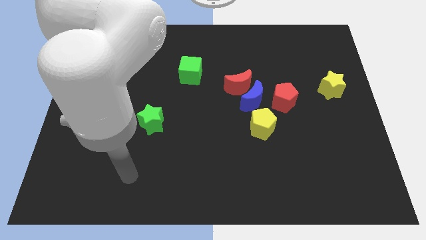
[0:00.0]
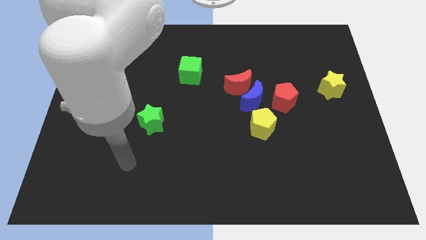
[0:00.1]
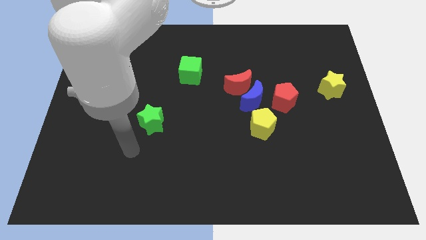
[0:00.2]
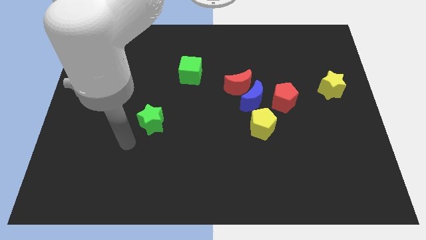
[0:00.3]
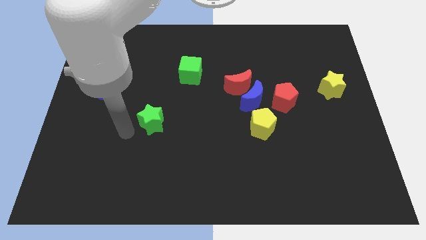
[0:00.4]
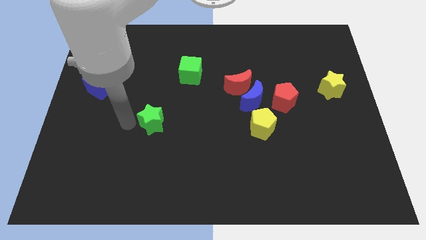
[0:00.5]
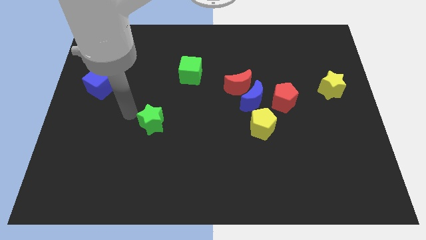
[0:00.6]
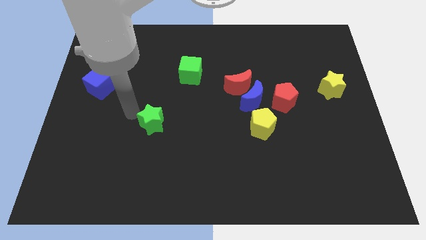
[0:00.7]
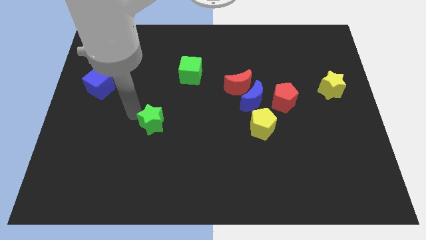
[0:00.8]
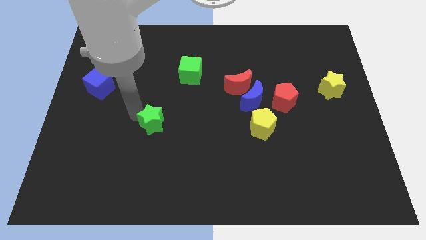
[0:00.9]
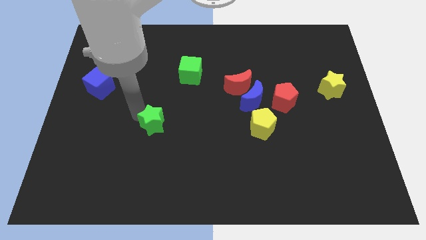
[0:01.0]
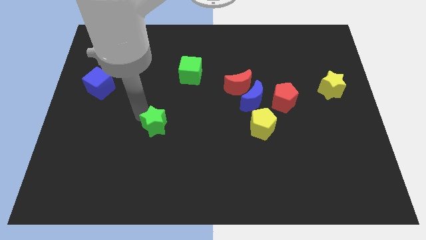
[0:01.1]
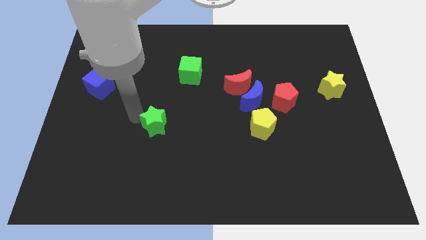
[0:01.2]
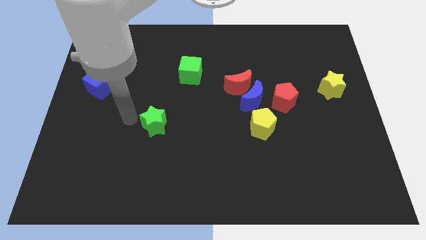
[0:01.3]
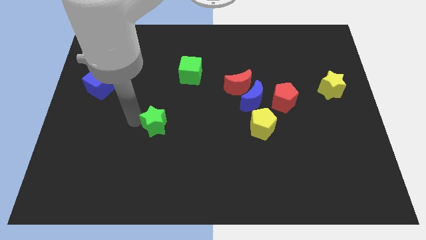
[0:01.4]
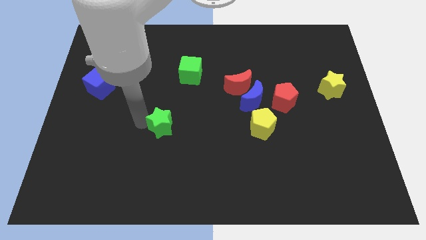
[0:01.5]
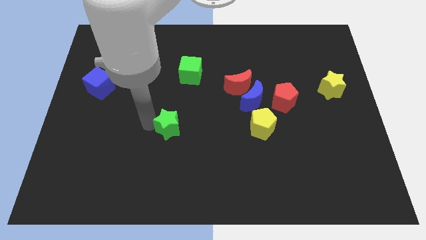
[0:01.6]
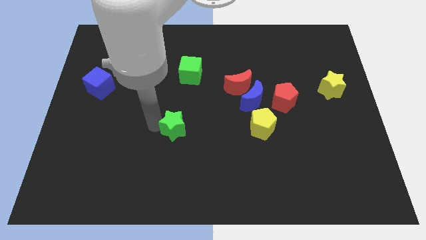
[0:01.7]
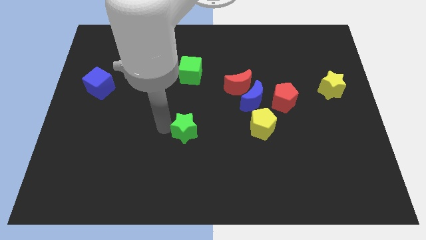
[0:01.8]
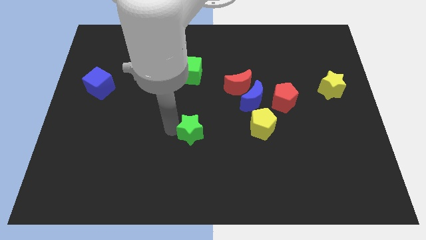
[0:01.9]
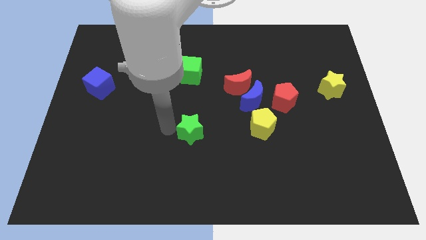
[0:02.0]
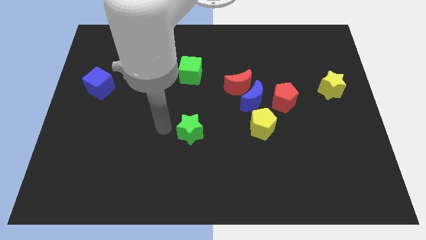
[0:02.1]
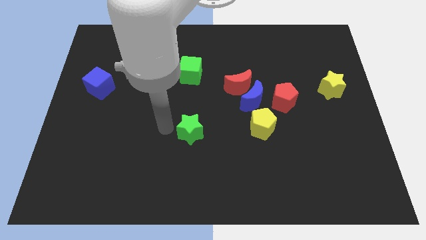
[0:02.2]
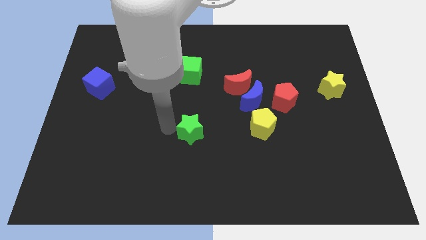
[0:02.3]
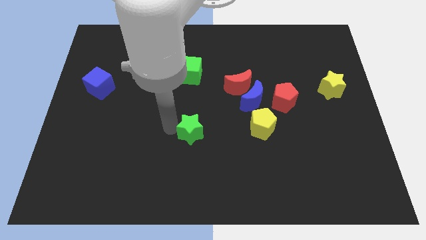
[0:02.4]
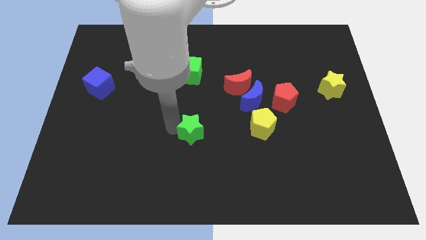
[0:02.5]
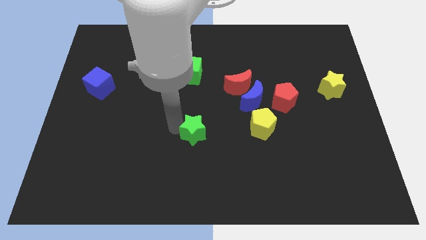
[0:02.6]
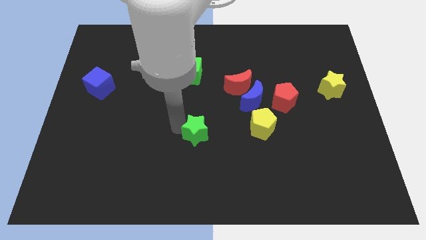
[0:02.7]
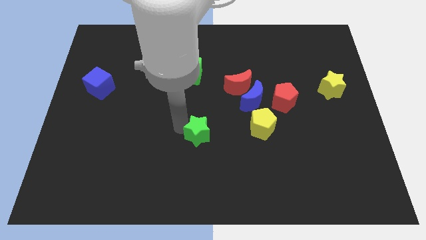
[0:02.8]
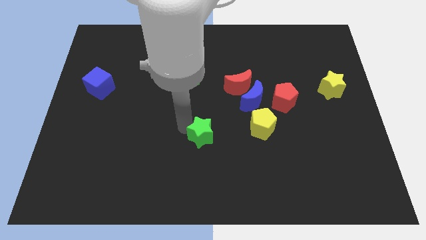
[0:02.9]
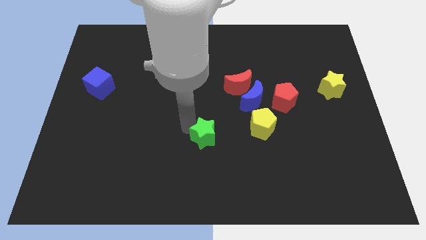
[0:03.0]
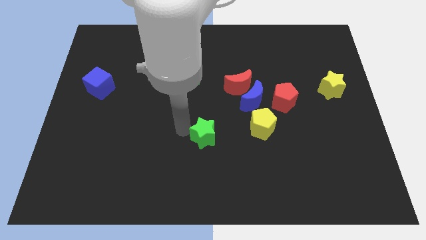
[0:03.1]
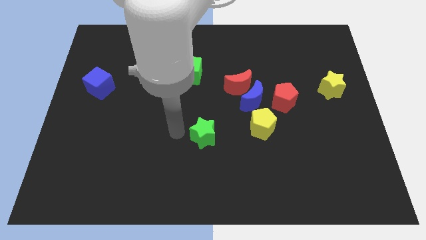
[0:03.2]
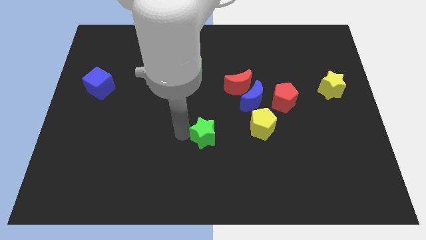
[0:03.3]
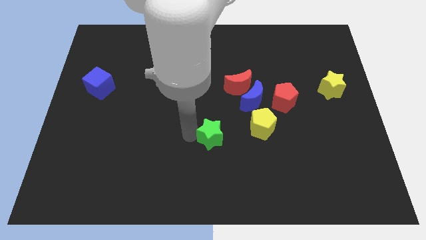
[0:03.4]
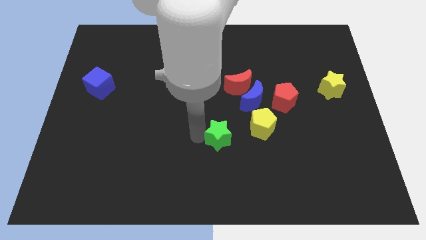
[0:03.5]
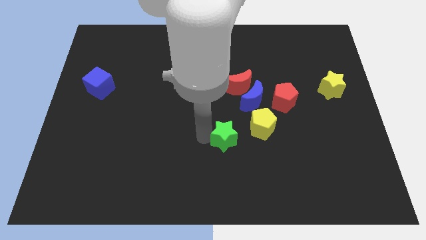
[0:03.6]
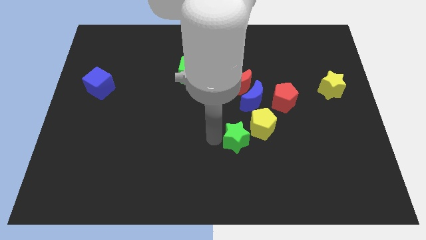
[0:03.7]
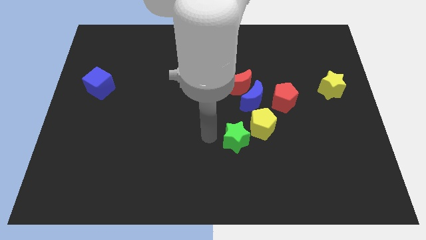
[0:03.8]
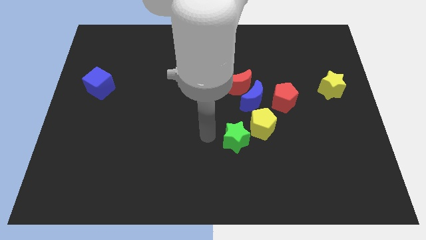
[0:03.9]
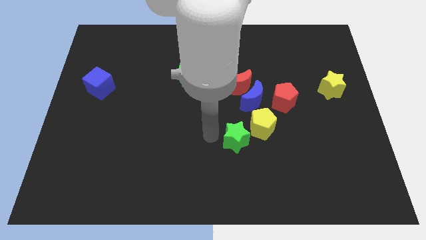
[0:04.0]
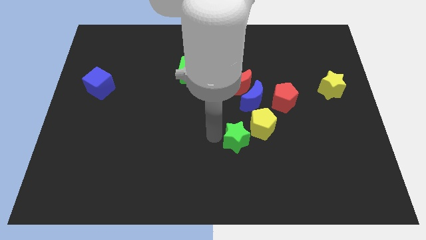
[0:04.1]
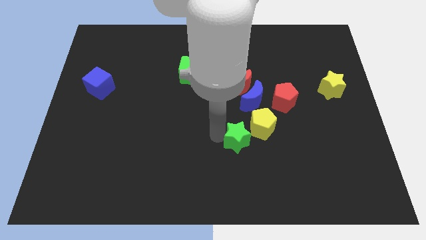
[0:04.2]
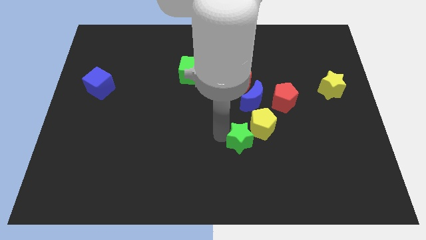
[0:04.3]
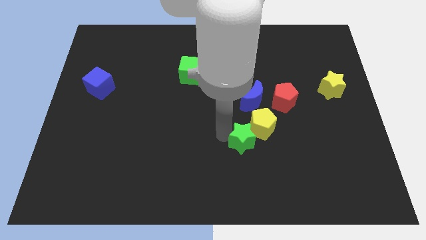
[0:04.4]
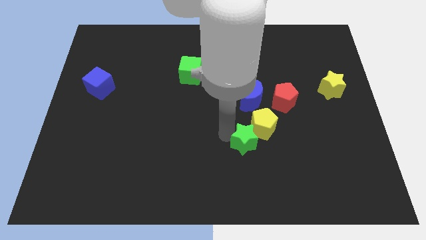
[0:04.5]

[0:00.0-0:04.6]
push the green star to the right

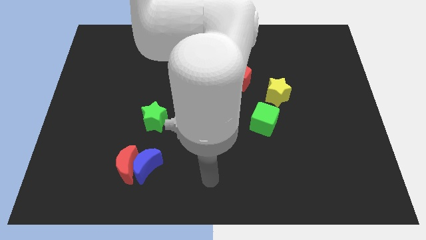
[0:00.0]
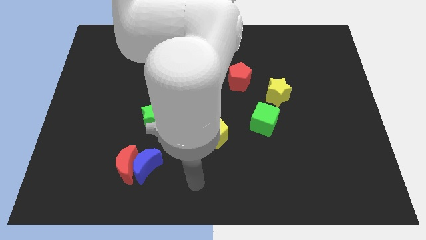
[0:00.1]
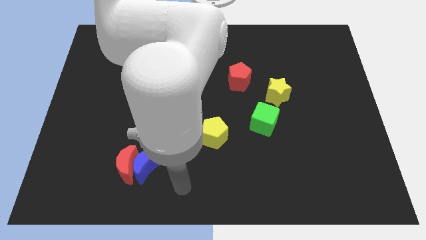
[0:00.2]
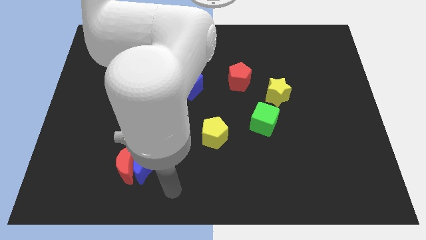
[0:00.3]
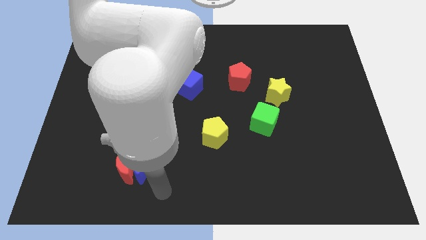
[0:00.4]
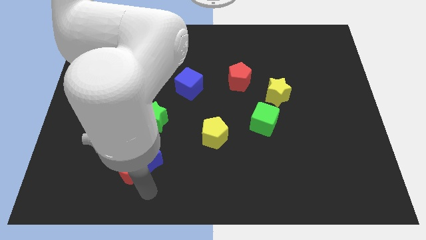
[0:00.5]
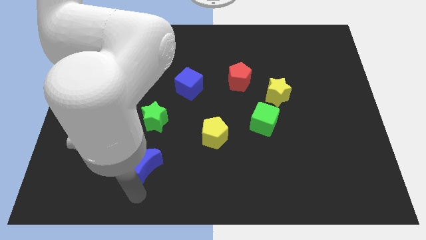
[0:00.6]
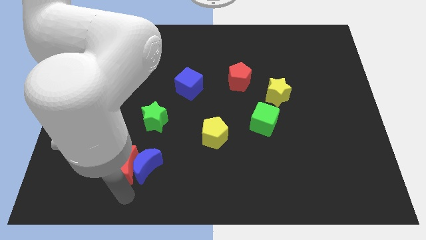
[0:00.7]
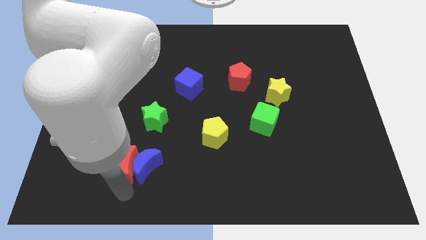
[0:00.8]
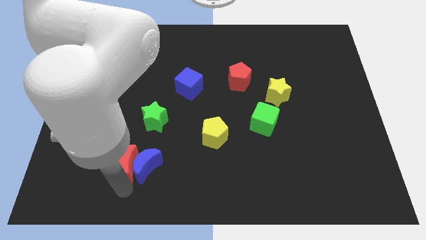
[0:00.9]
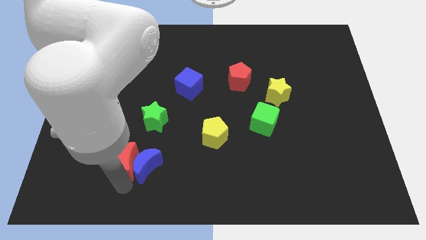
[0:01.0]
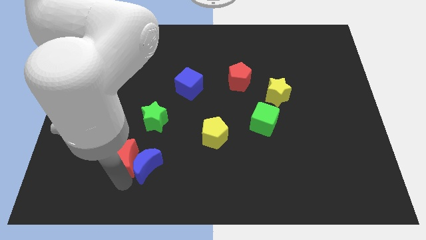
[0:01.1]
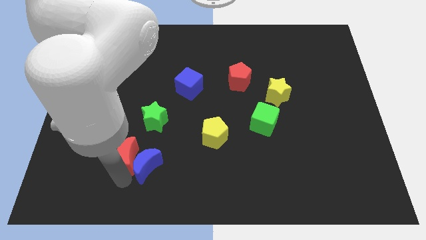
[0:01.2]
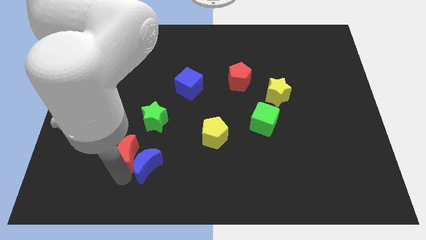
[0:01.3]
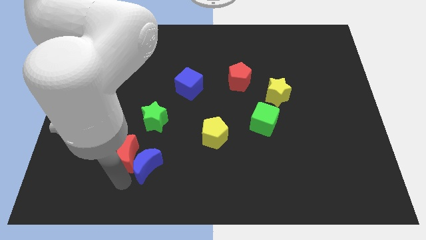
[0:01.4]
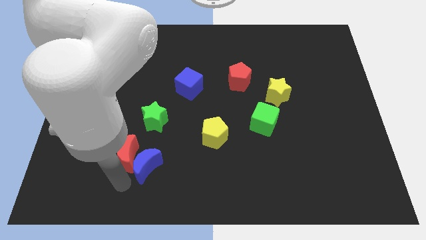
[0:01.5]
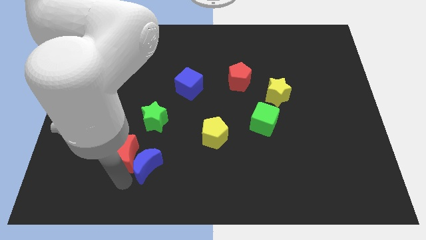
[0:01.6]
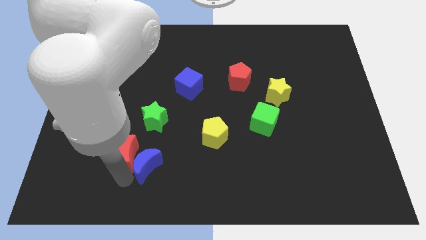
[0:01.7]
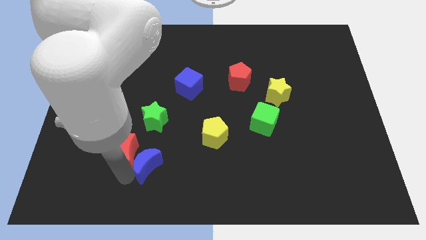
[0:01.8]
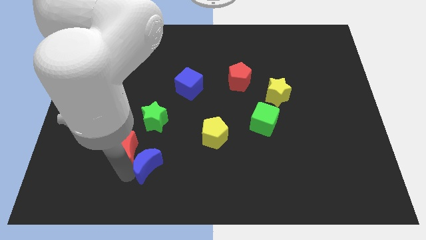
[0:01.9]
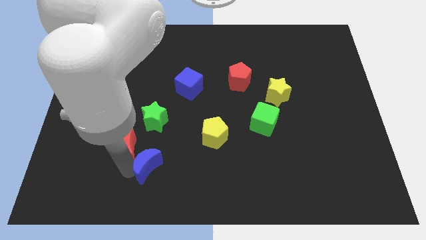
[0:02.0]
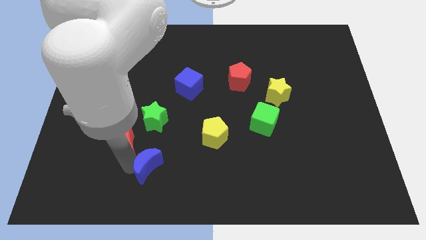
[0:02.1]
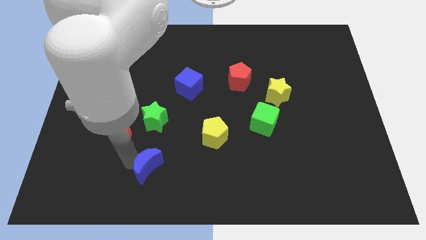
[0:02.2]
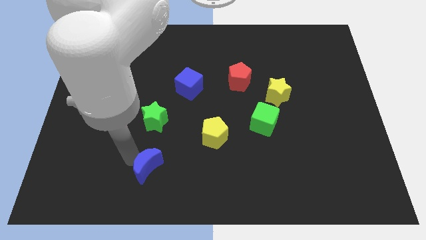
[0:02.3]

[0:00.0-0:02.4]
move the red moon a bit upwards

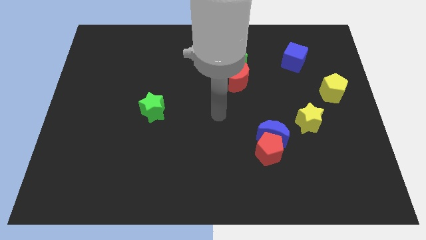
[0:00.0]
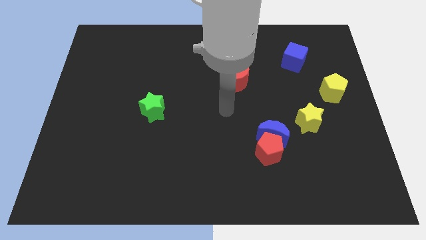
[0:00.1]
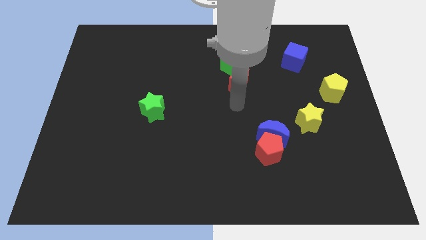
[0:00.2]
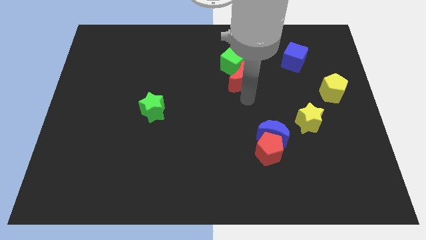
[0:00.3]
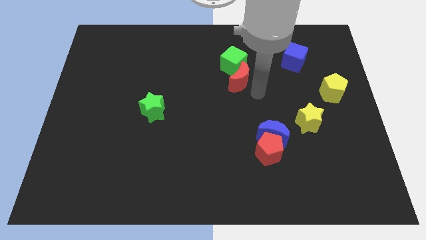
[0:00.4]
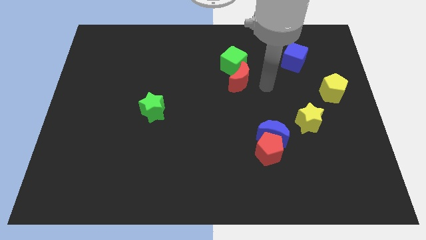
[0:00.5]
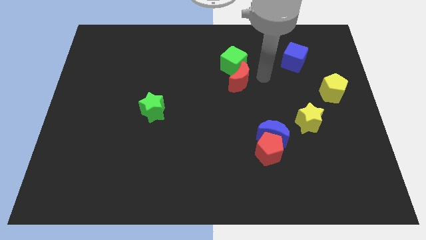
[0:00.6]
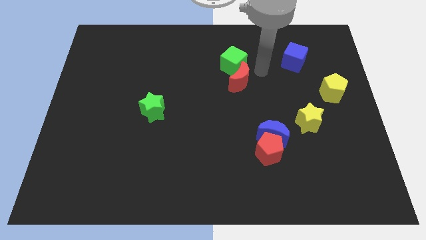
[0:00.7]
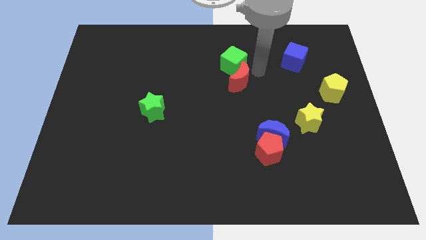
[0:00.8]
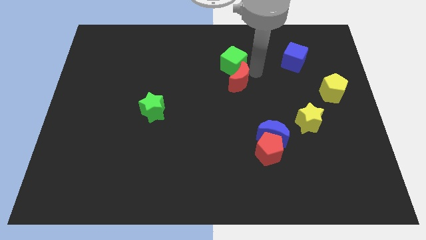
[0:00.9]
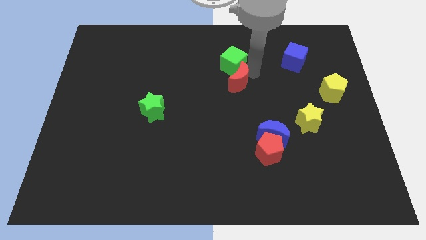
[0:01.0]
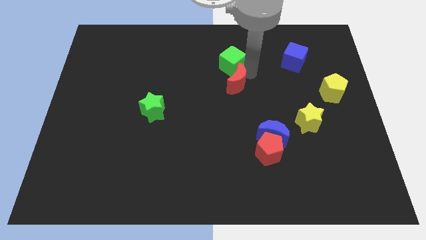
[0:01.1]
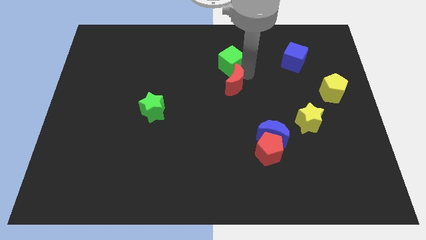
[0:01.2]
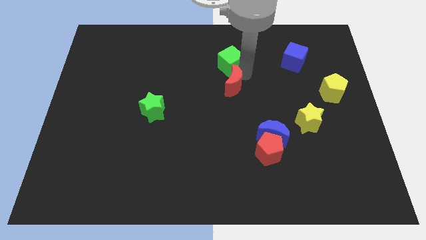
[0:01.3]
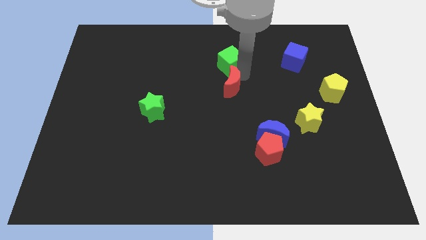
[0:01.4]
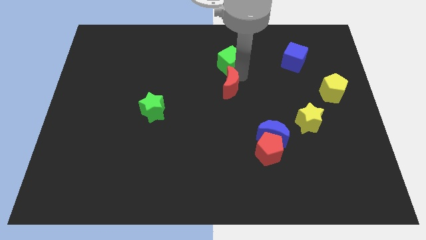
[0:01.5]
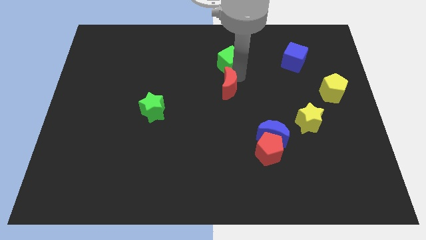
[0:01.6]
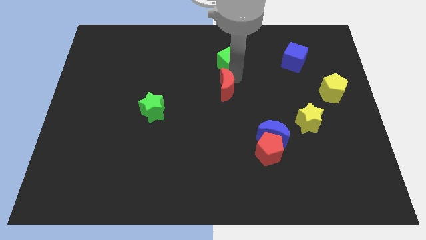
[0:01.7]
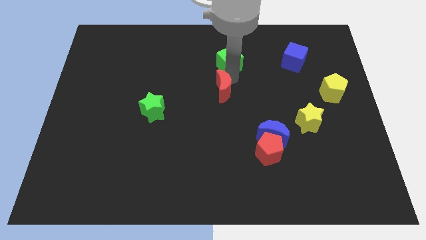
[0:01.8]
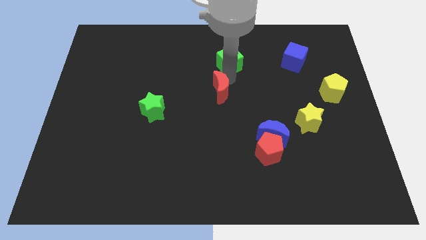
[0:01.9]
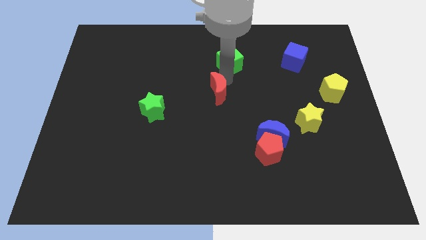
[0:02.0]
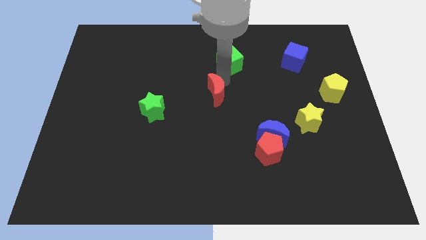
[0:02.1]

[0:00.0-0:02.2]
move the red moon somewhat down and left diagonally
